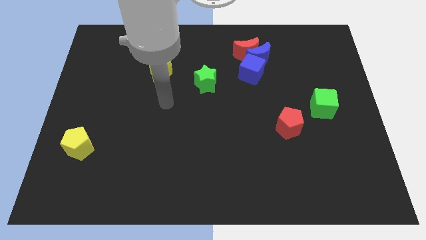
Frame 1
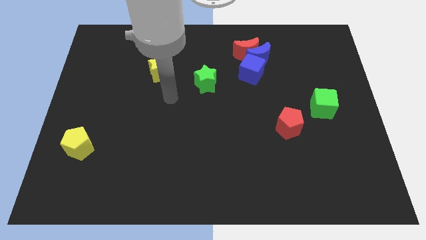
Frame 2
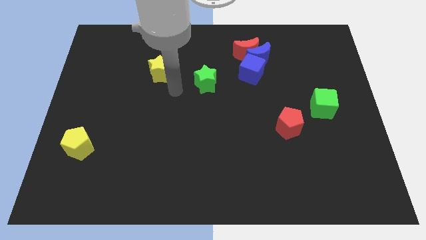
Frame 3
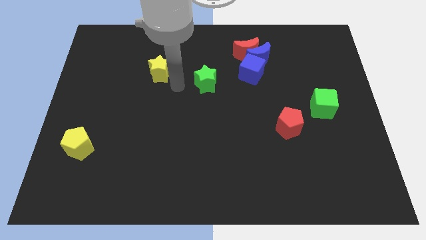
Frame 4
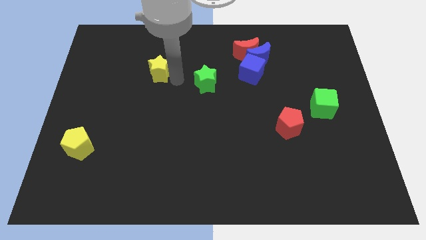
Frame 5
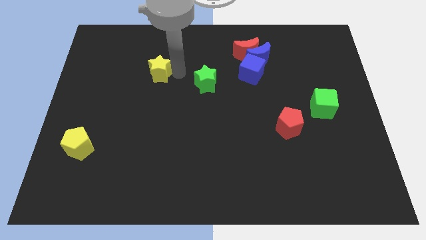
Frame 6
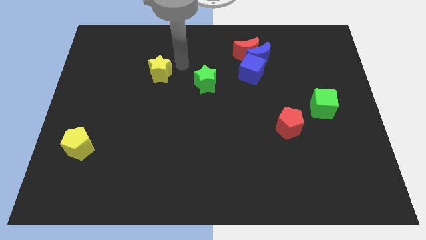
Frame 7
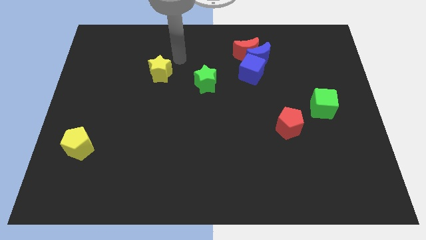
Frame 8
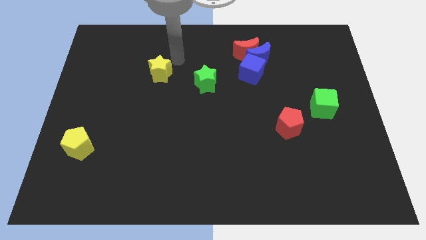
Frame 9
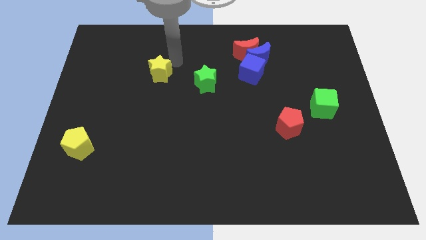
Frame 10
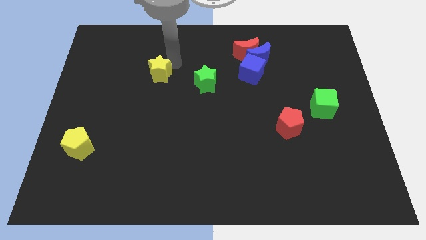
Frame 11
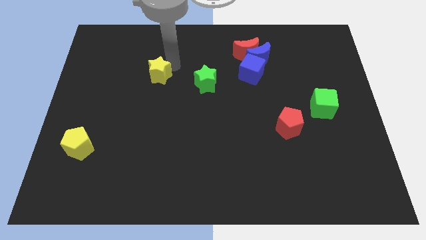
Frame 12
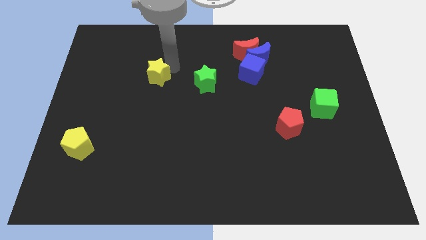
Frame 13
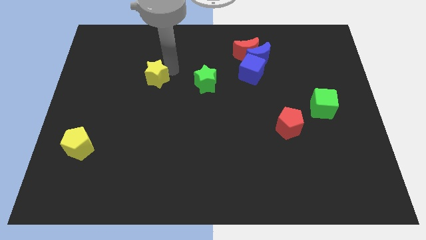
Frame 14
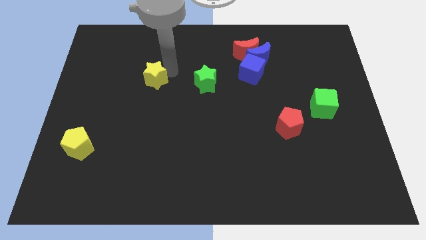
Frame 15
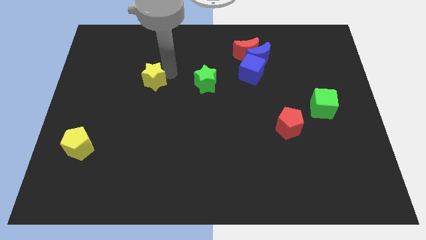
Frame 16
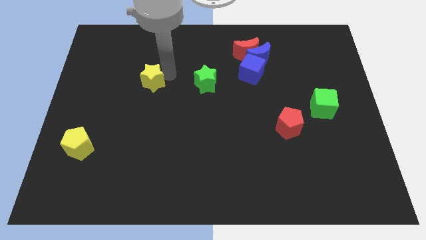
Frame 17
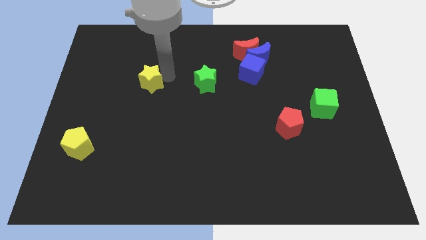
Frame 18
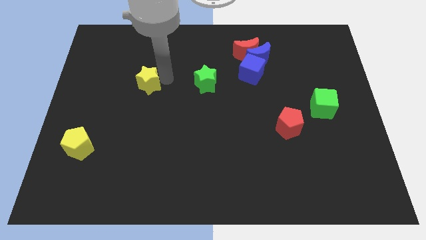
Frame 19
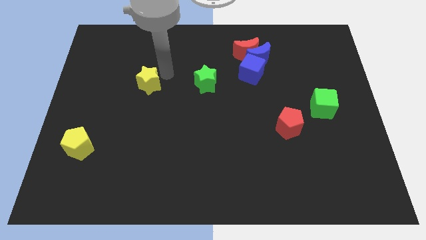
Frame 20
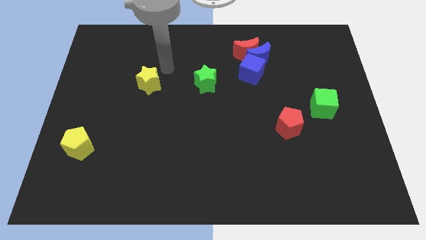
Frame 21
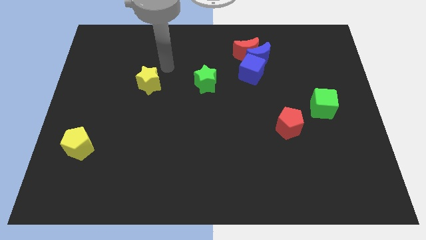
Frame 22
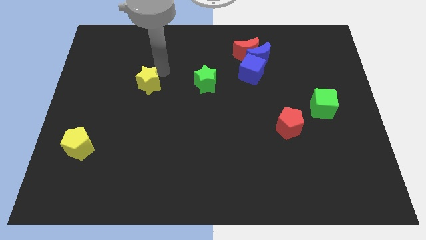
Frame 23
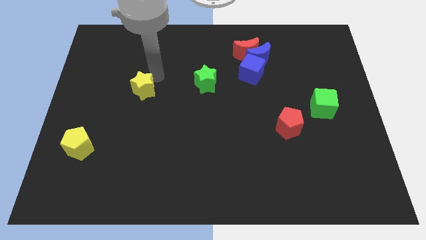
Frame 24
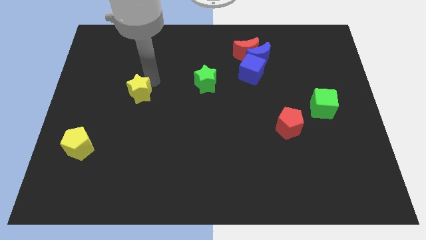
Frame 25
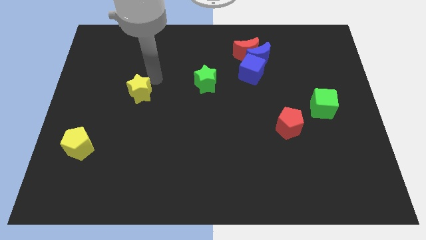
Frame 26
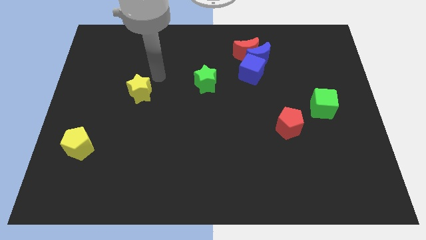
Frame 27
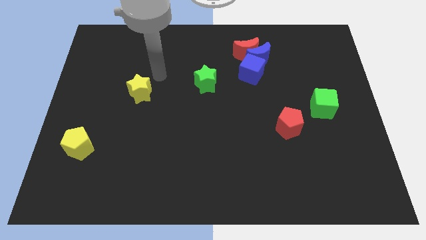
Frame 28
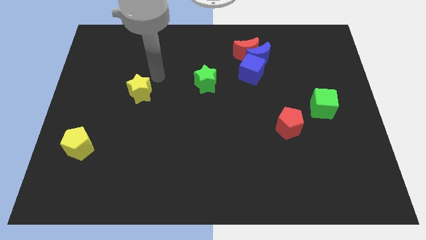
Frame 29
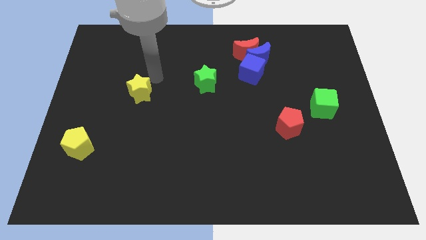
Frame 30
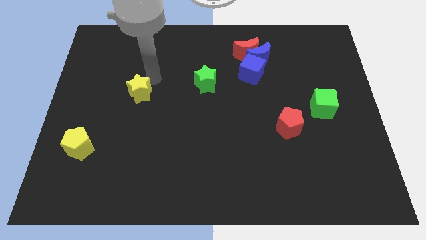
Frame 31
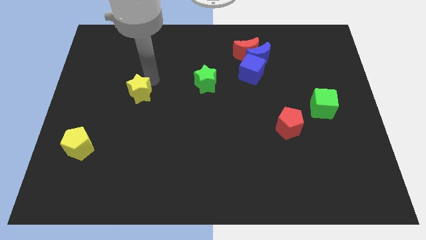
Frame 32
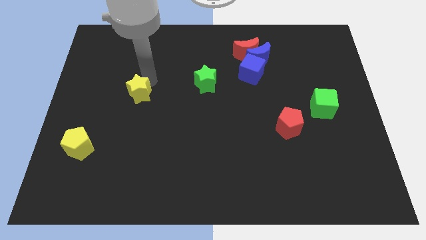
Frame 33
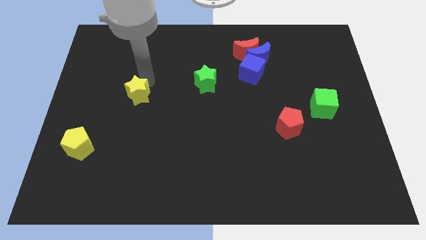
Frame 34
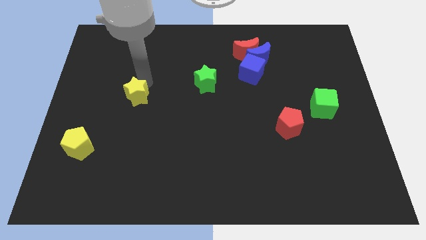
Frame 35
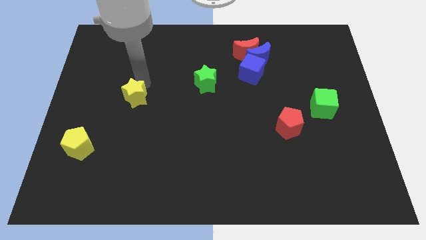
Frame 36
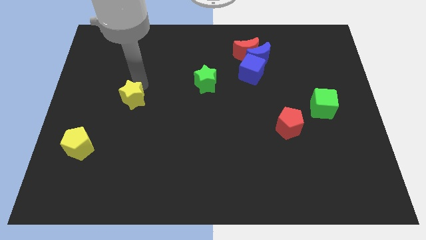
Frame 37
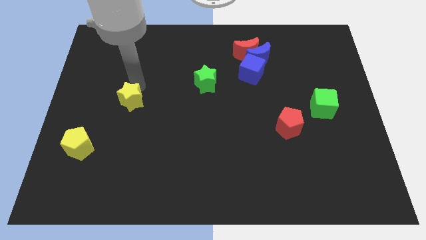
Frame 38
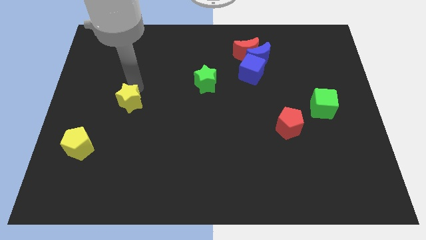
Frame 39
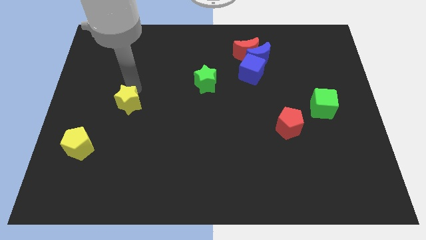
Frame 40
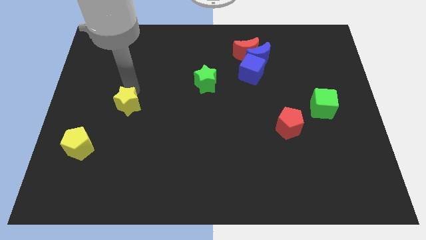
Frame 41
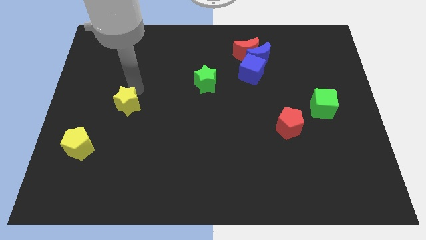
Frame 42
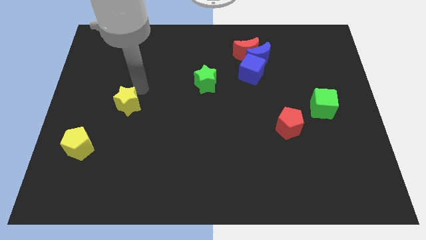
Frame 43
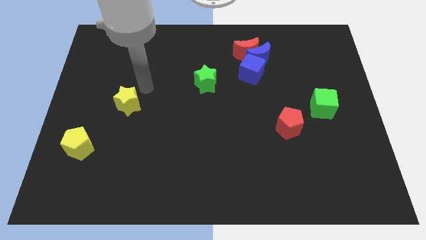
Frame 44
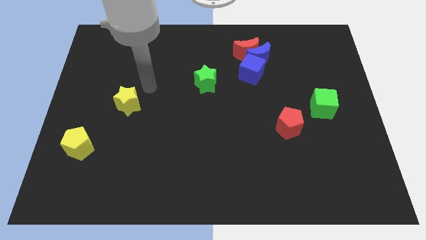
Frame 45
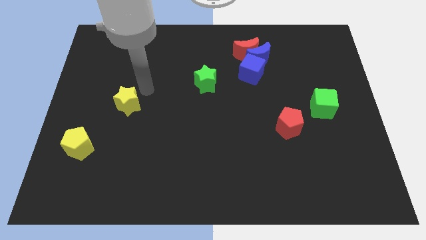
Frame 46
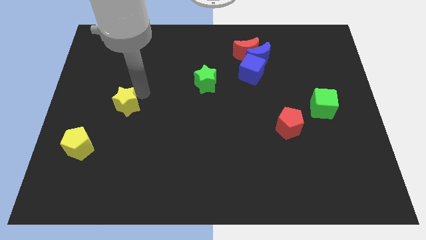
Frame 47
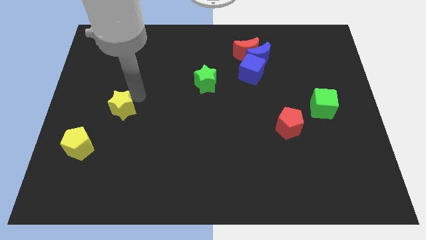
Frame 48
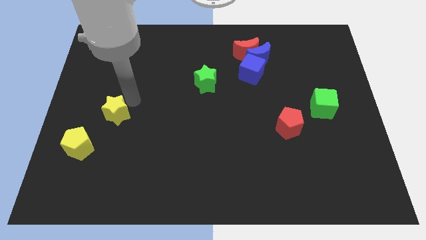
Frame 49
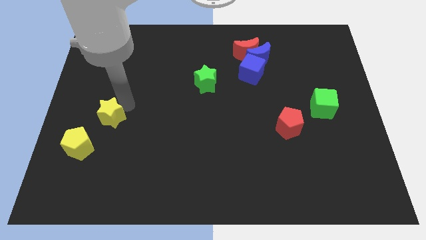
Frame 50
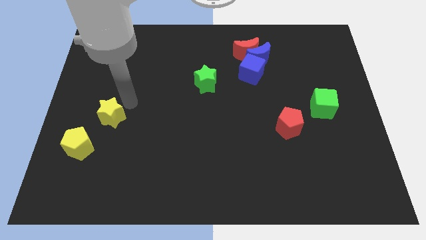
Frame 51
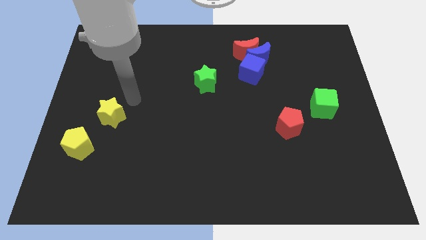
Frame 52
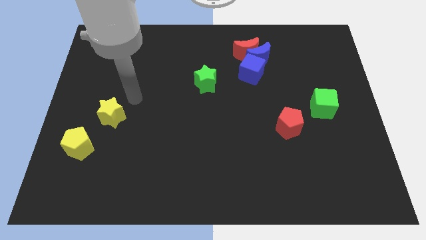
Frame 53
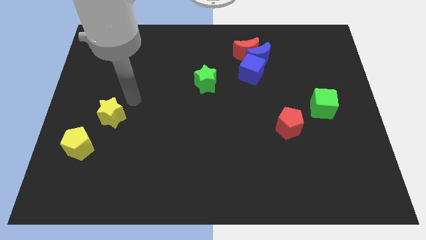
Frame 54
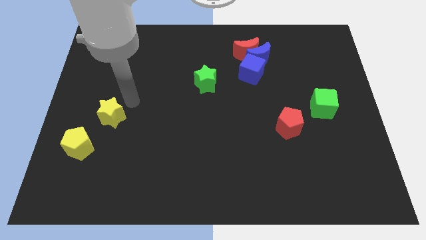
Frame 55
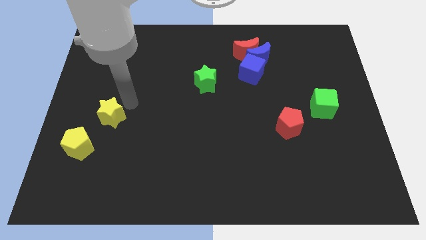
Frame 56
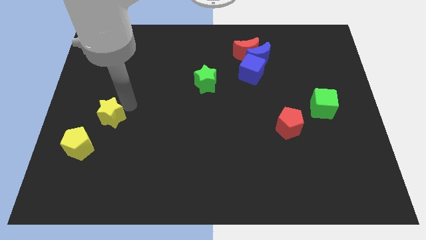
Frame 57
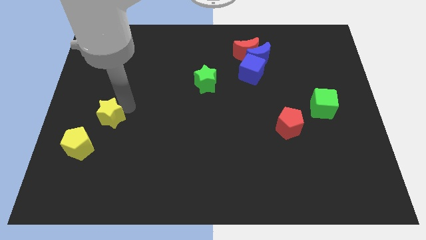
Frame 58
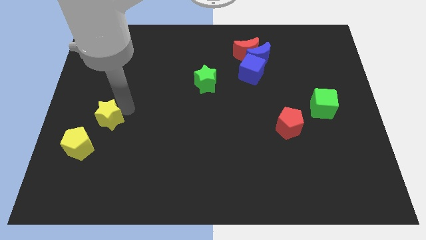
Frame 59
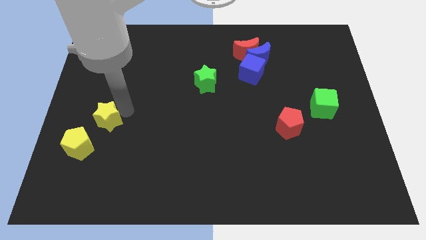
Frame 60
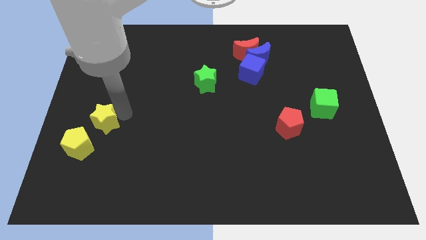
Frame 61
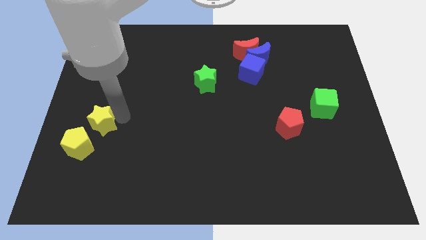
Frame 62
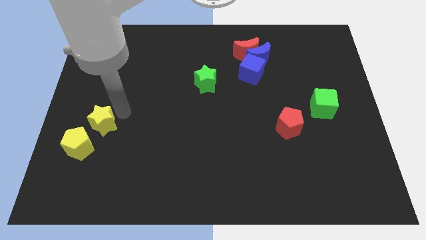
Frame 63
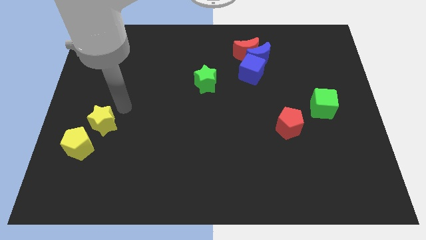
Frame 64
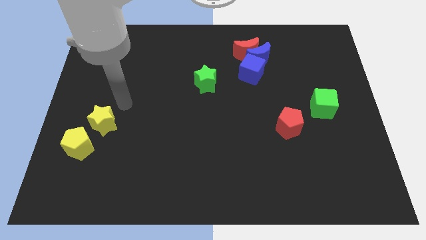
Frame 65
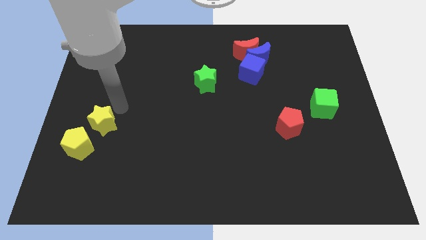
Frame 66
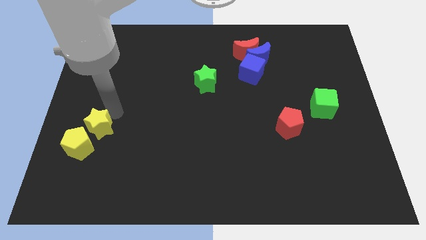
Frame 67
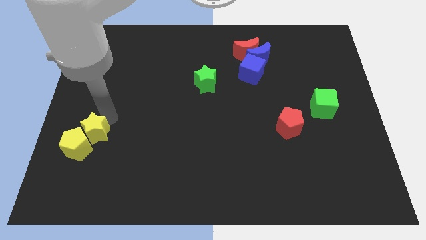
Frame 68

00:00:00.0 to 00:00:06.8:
move the yellow star next to the yellow pentagon
